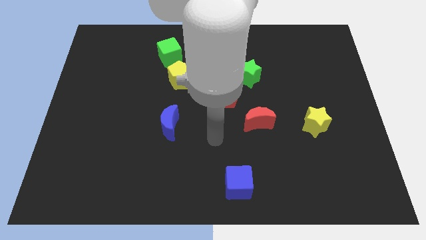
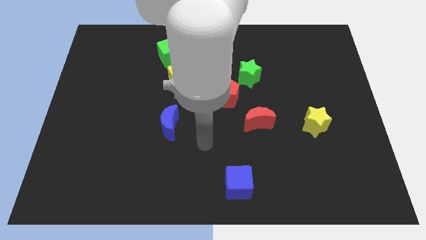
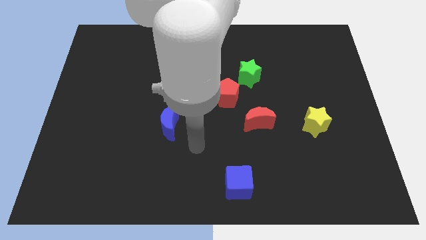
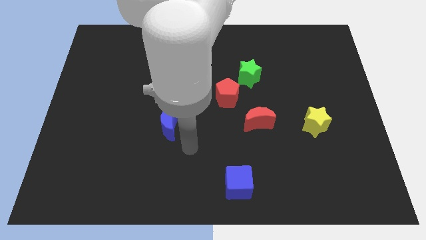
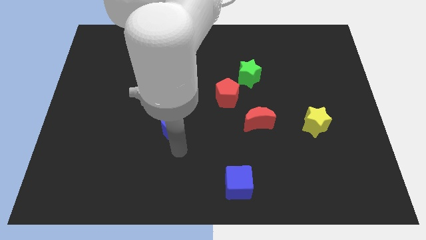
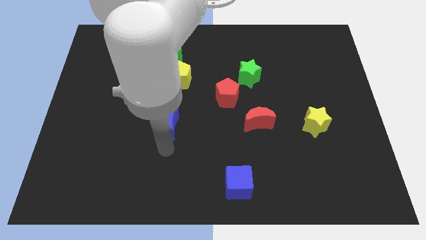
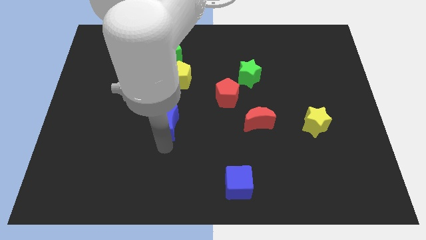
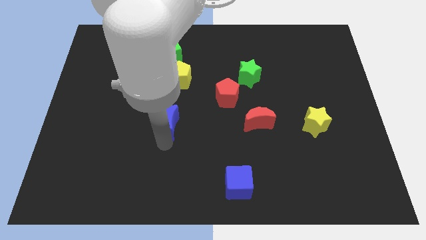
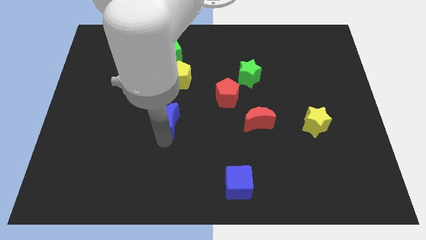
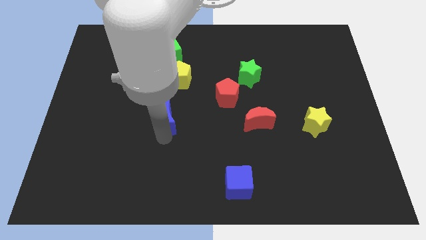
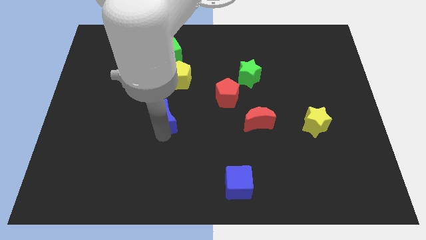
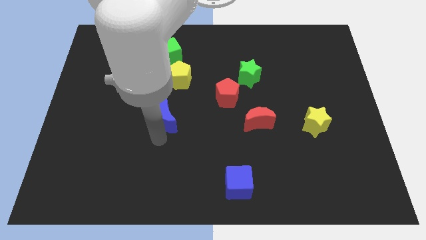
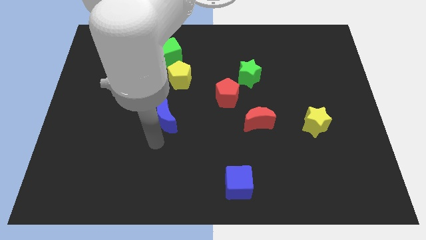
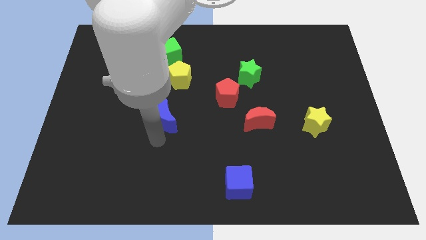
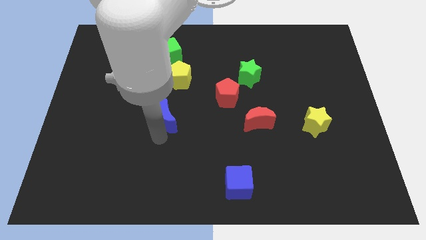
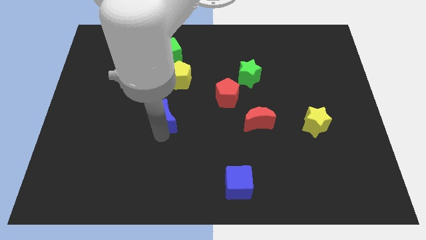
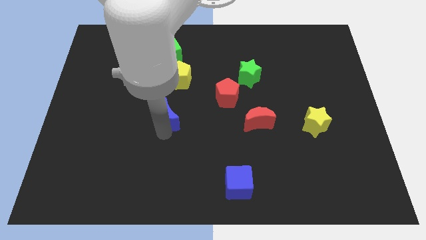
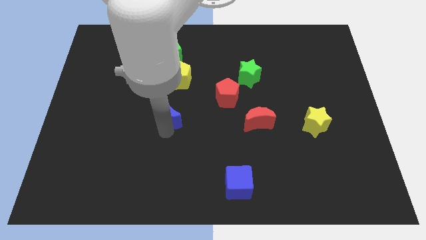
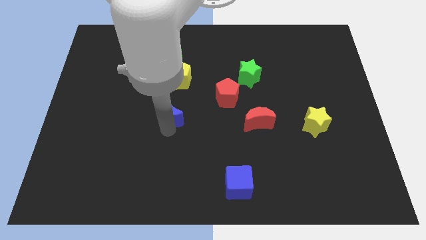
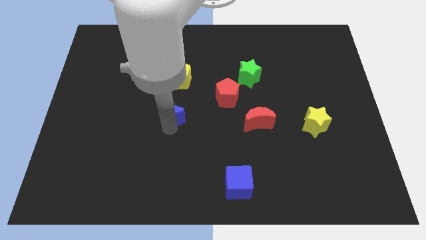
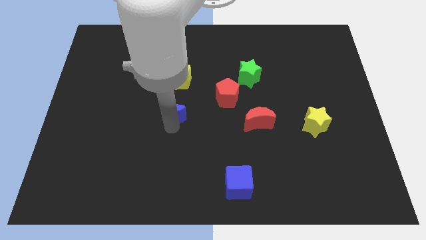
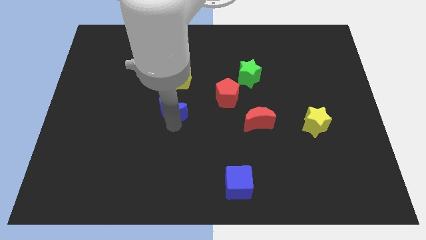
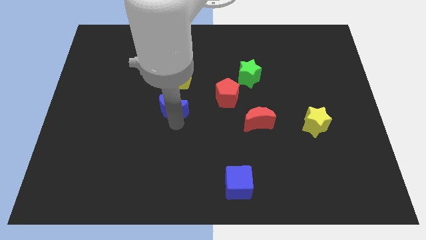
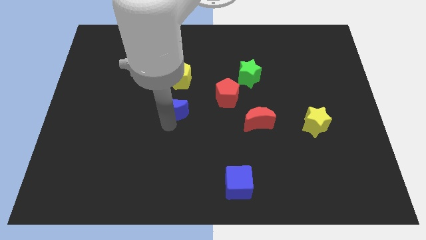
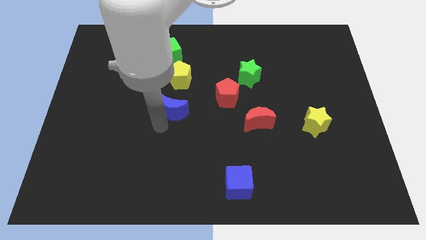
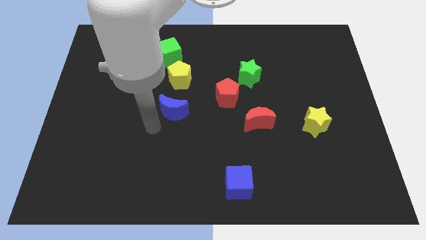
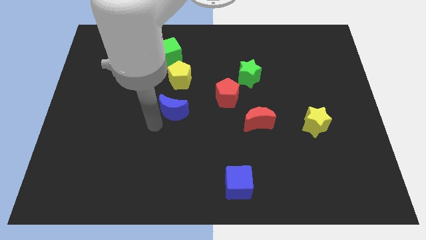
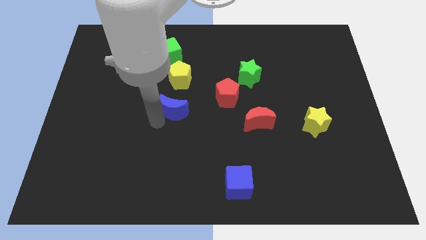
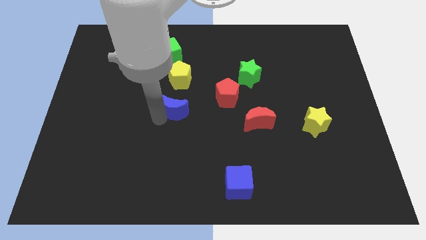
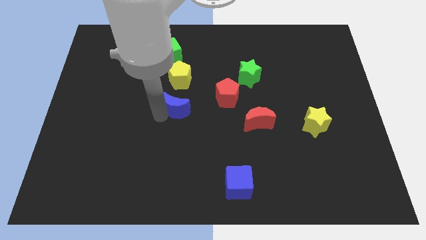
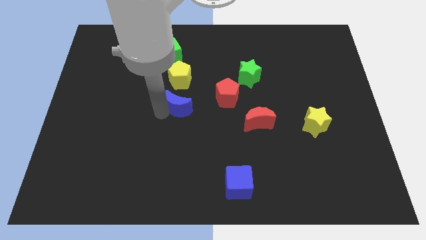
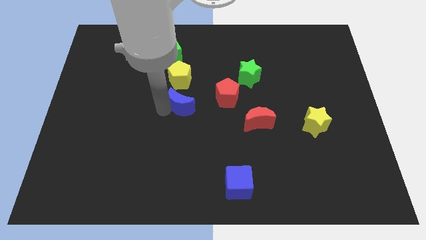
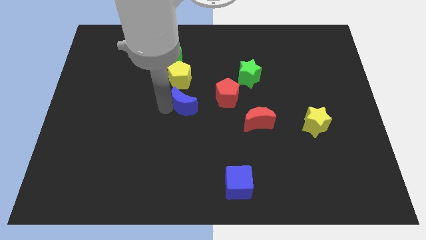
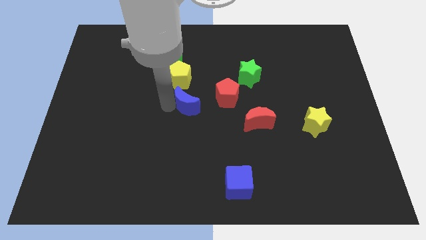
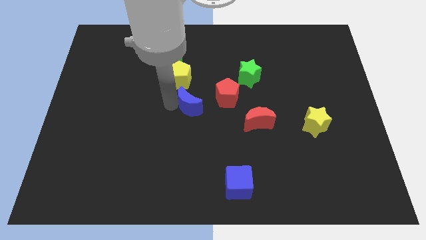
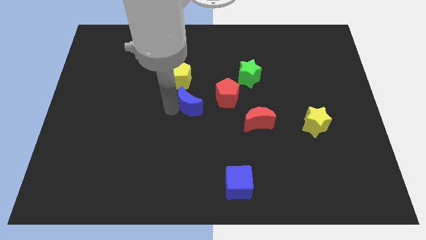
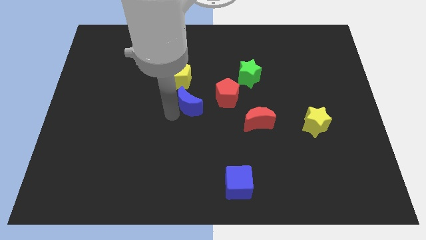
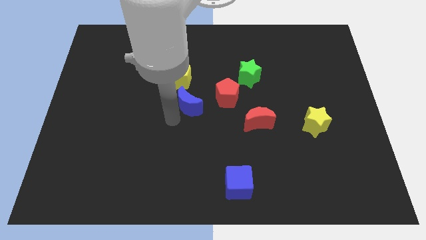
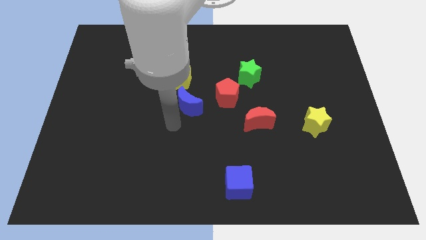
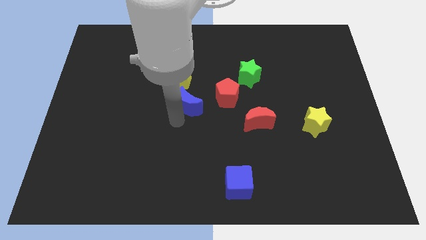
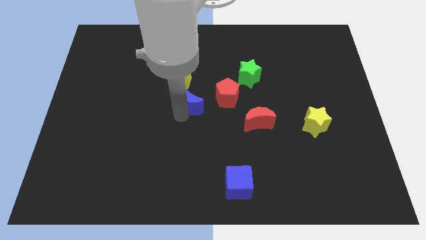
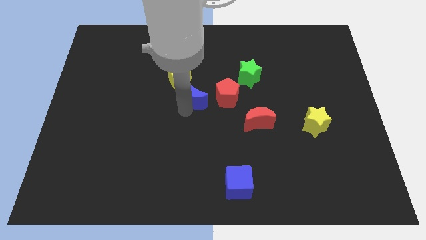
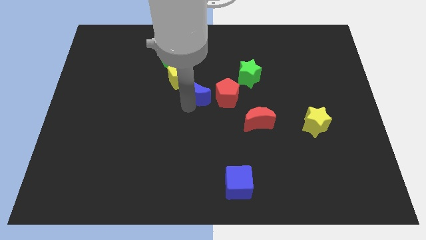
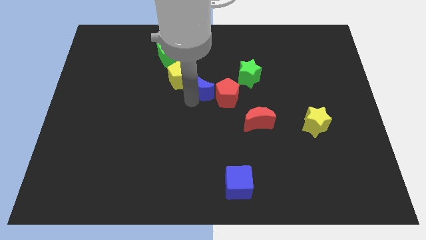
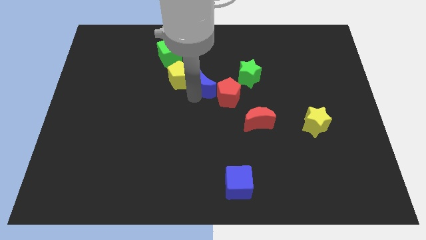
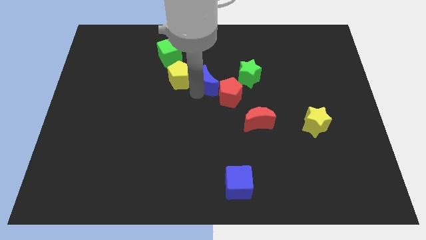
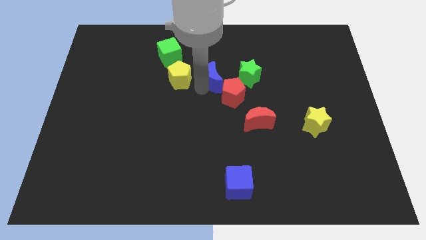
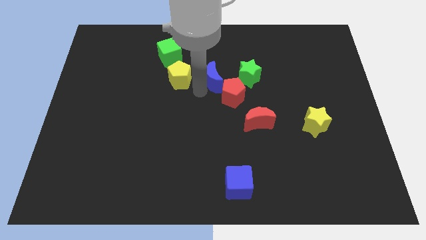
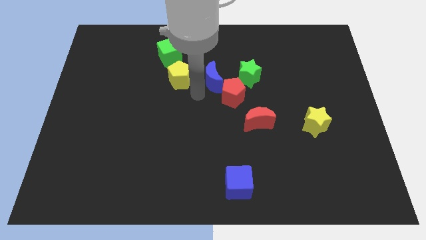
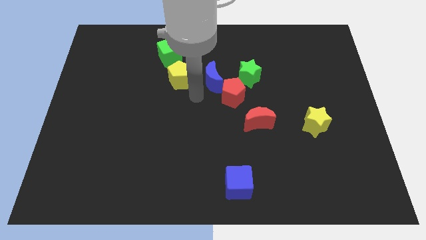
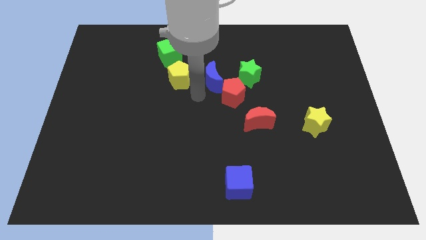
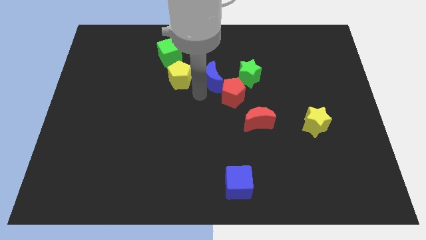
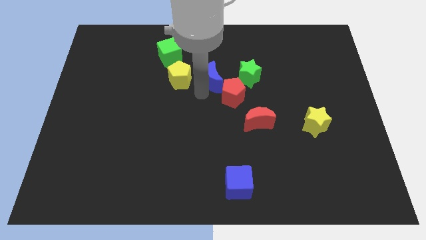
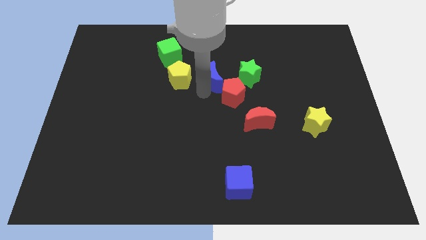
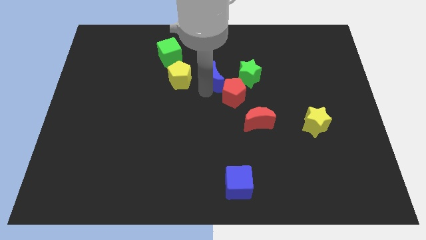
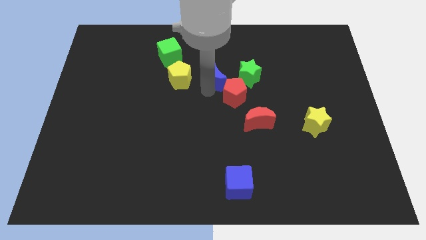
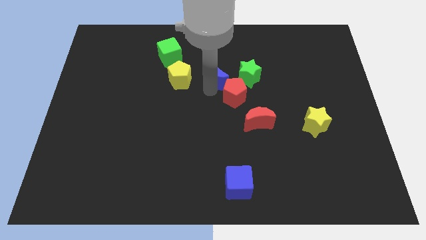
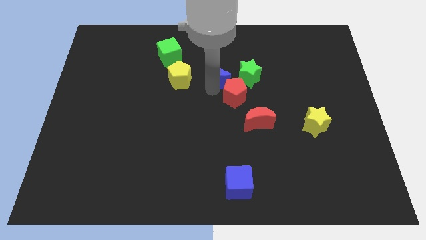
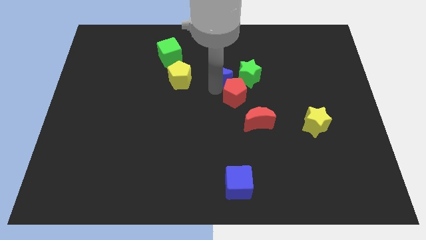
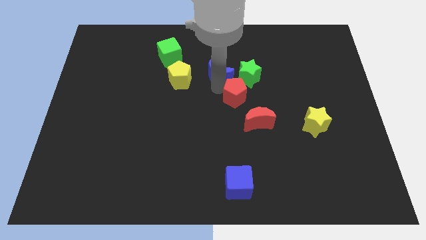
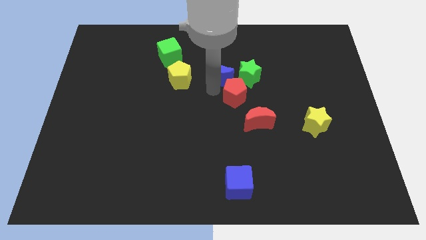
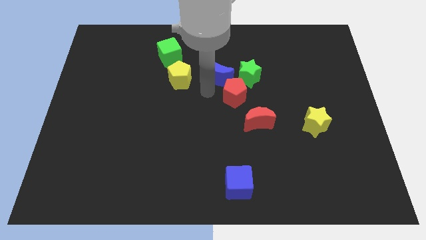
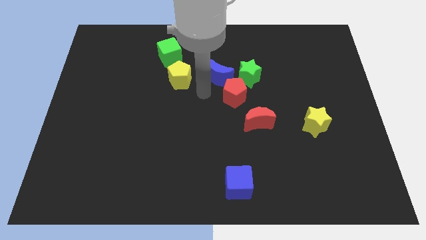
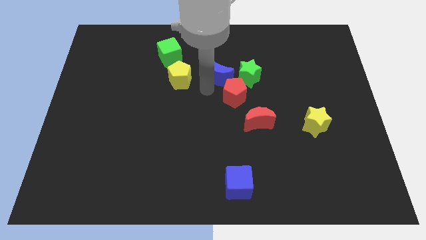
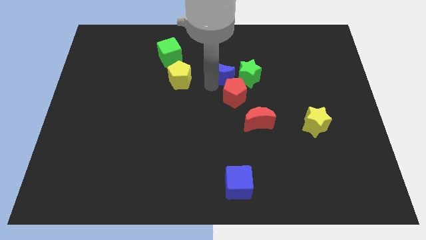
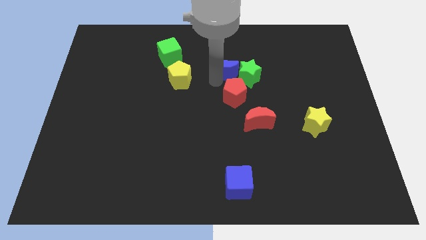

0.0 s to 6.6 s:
move the blue moon upwards and right

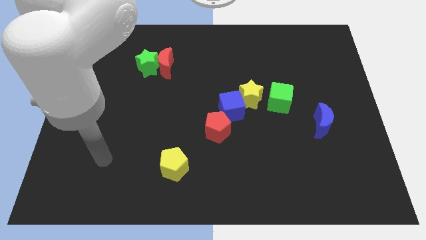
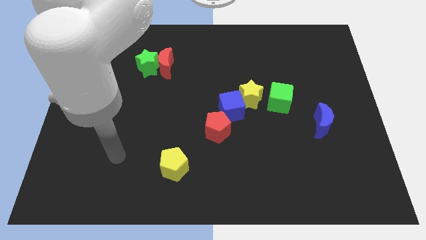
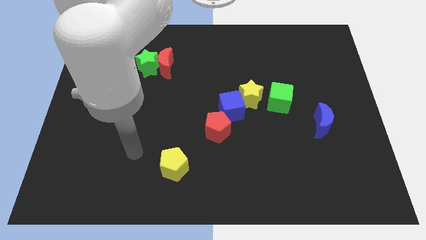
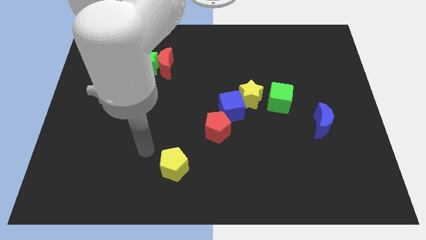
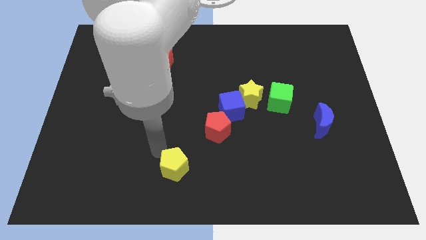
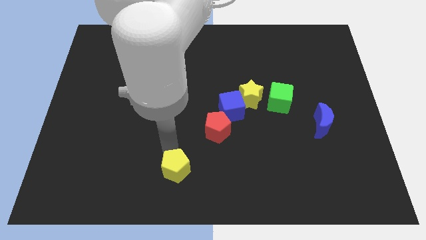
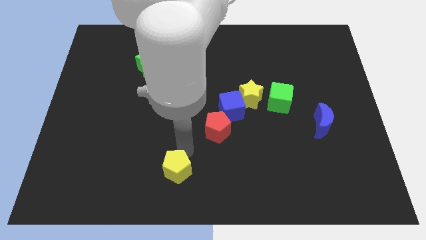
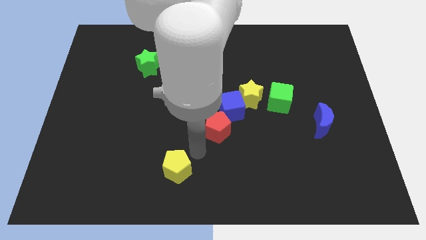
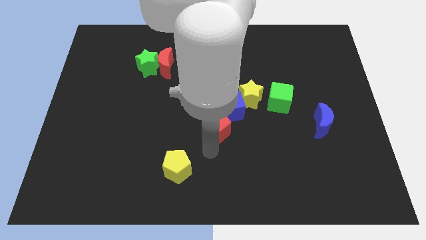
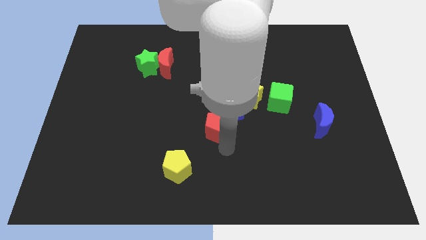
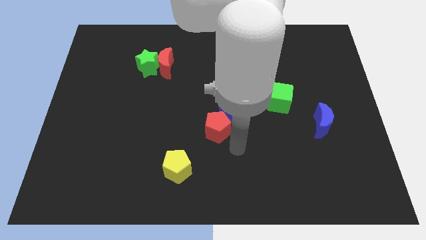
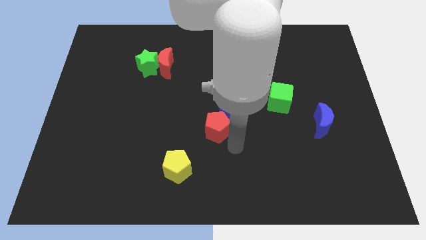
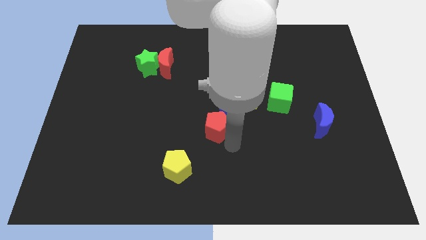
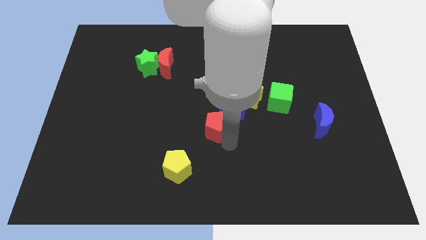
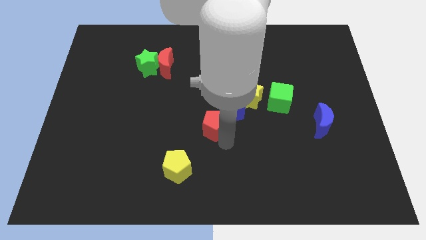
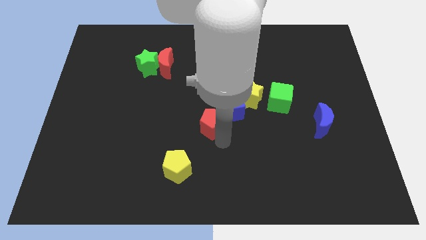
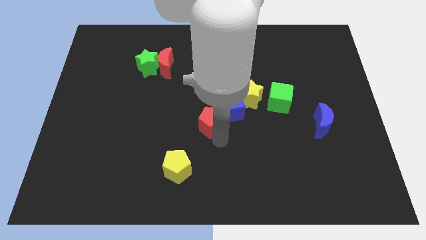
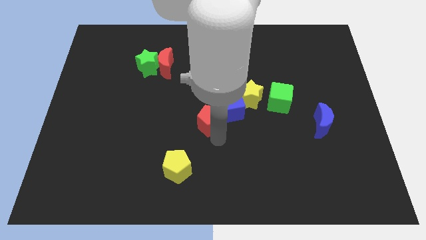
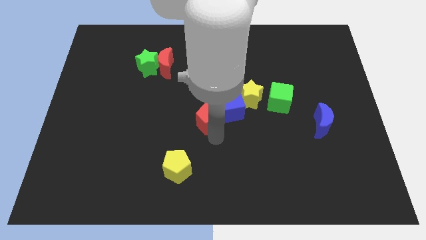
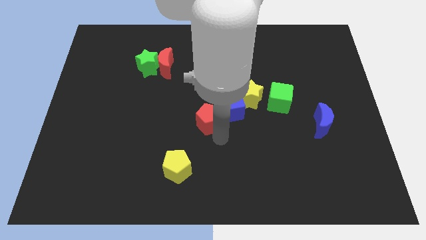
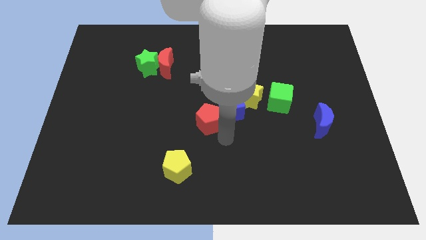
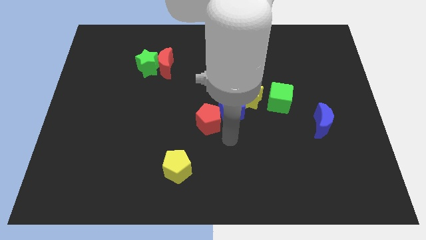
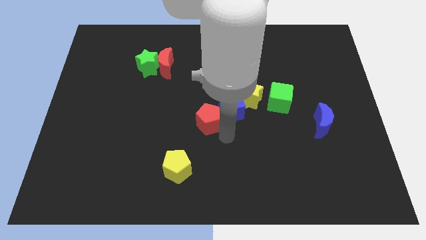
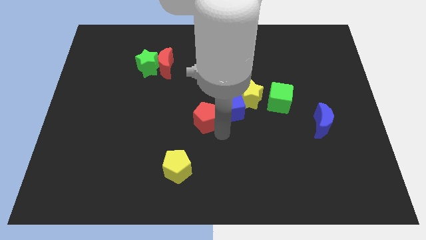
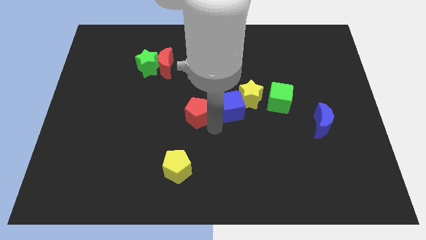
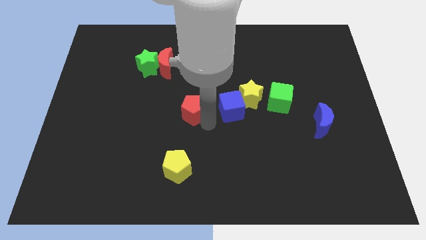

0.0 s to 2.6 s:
push the red pentagon diagonally upwards and left a little
